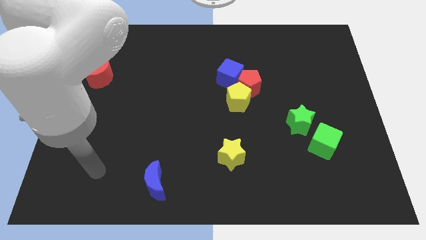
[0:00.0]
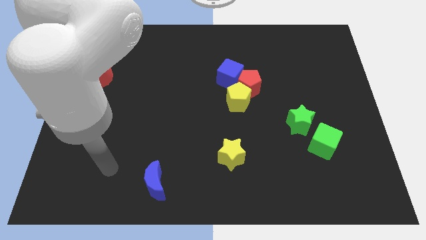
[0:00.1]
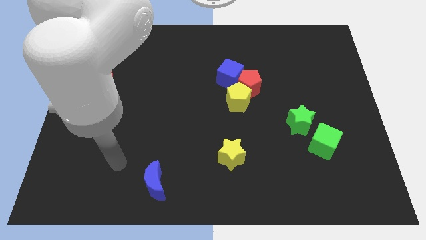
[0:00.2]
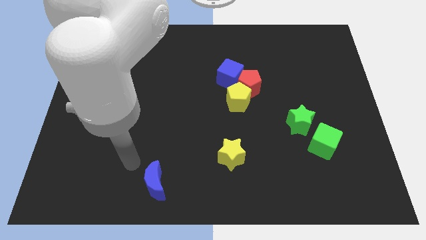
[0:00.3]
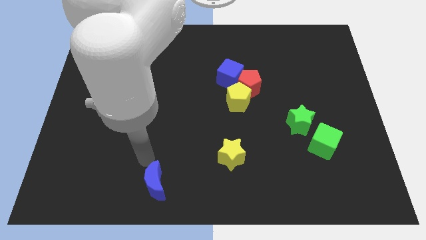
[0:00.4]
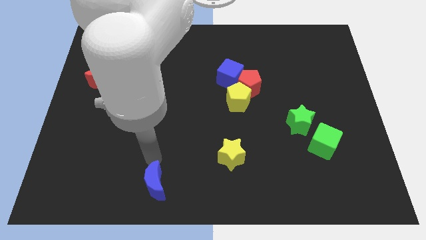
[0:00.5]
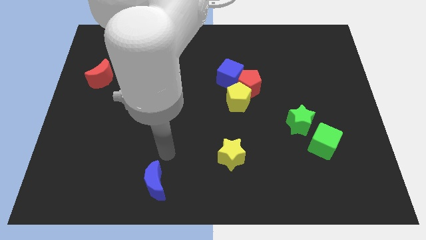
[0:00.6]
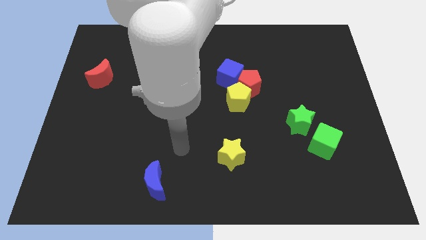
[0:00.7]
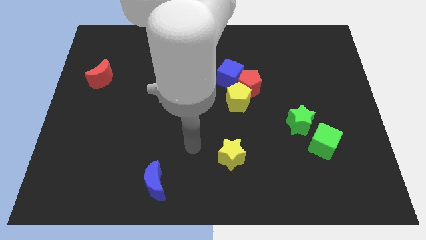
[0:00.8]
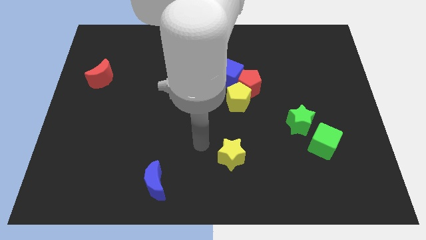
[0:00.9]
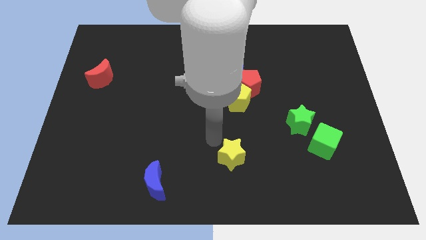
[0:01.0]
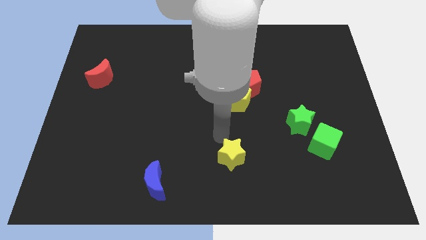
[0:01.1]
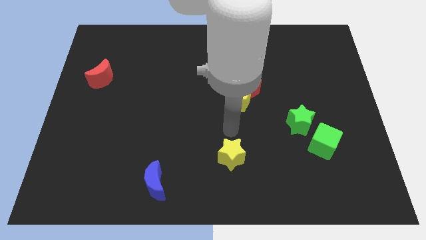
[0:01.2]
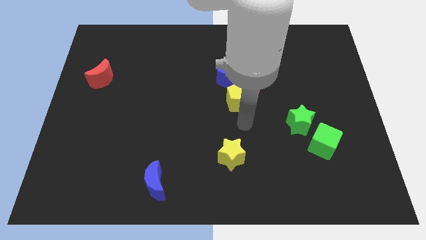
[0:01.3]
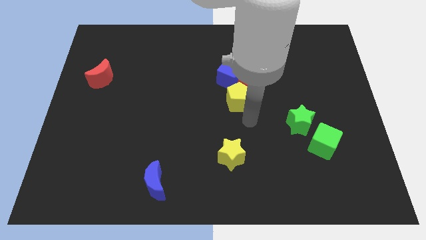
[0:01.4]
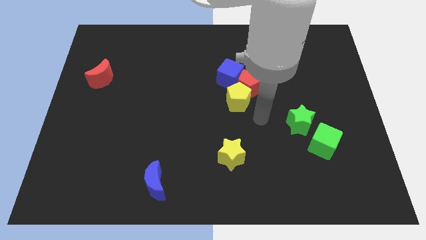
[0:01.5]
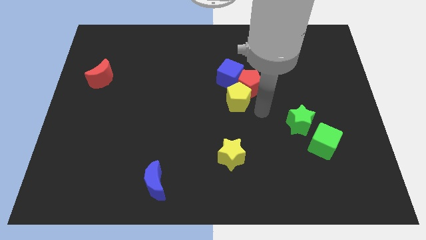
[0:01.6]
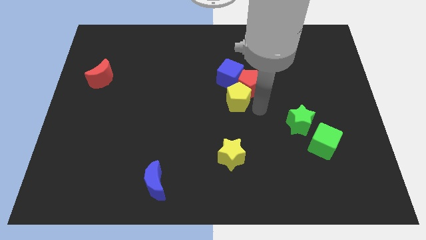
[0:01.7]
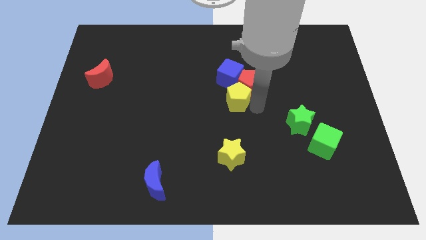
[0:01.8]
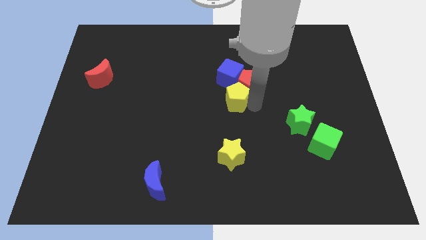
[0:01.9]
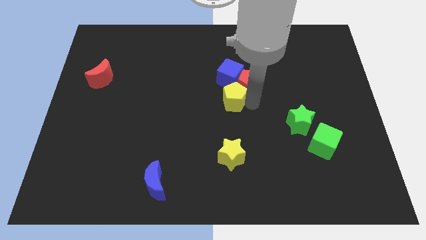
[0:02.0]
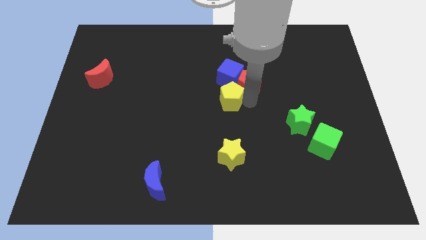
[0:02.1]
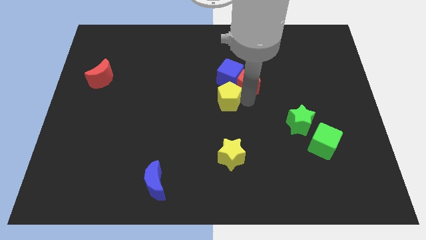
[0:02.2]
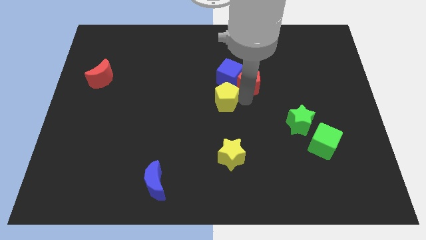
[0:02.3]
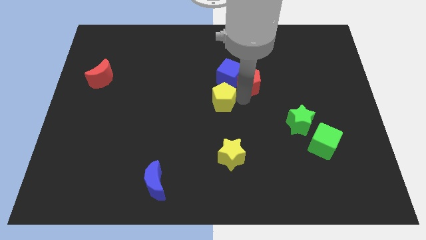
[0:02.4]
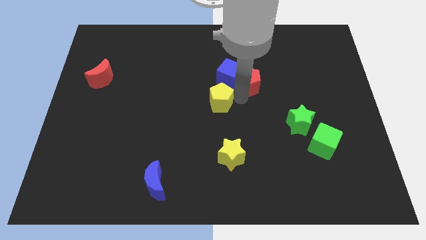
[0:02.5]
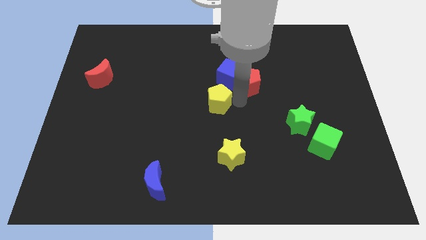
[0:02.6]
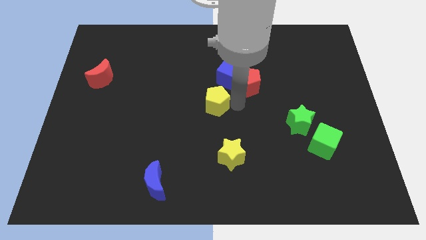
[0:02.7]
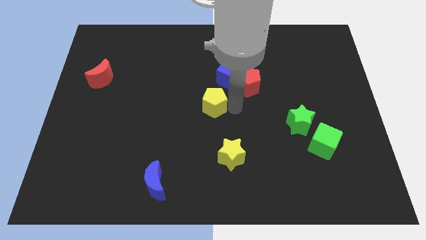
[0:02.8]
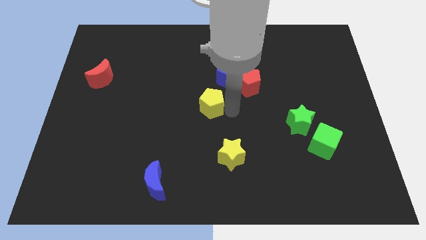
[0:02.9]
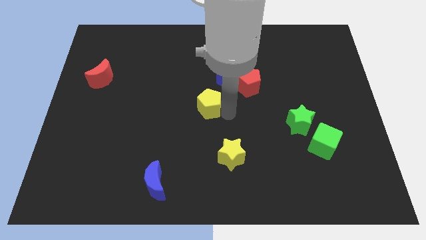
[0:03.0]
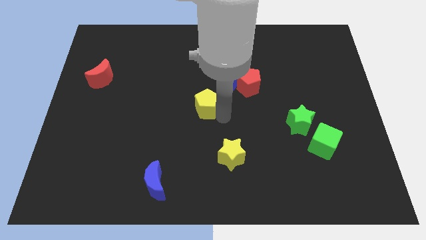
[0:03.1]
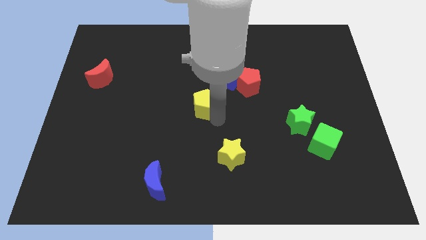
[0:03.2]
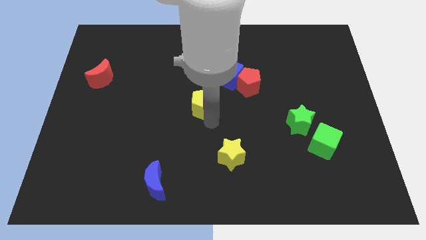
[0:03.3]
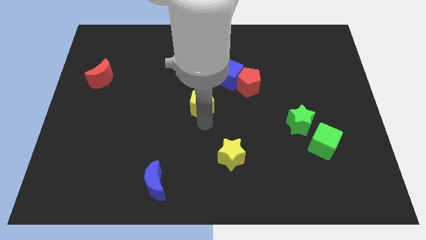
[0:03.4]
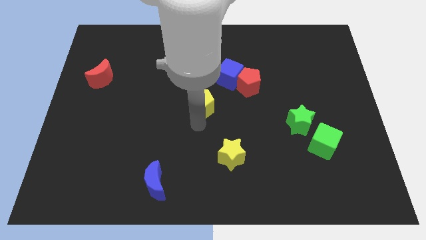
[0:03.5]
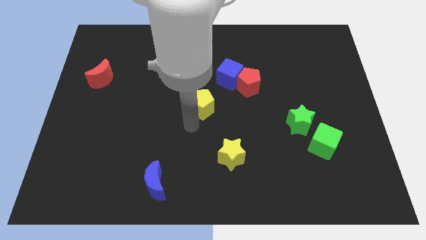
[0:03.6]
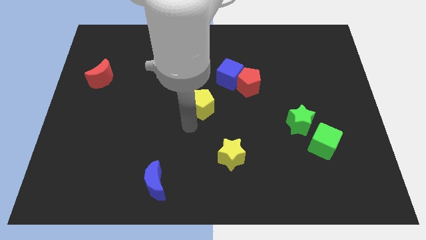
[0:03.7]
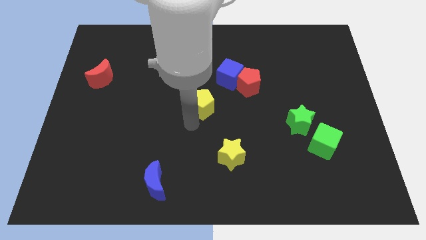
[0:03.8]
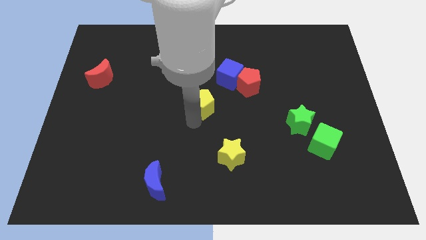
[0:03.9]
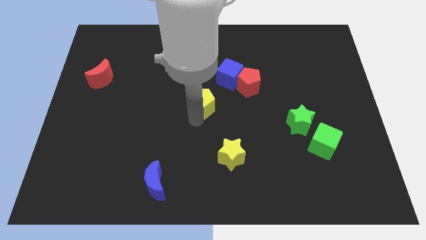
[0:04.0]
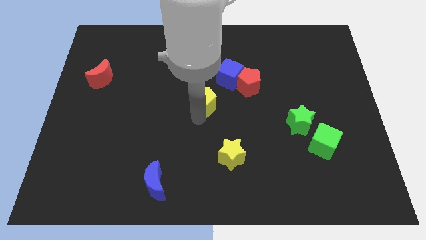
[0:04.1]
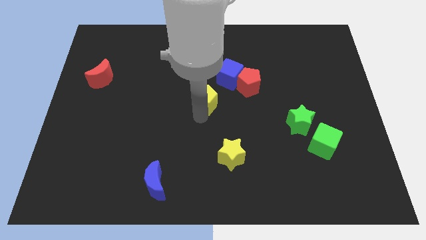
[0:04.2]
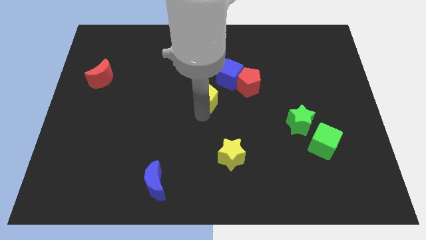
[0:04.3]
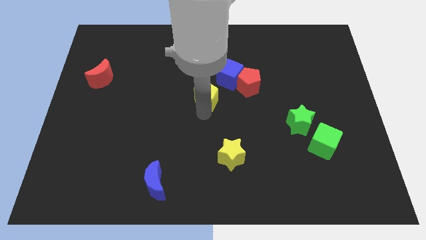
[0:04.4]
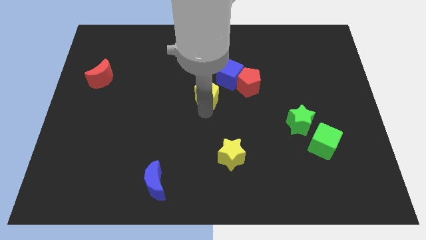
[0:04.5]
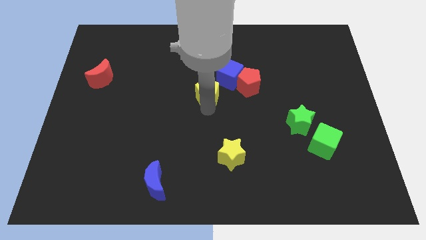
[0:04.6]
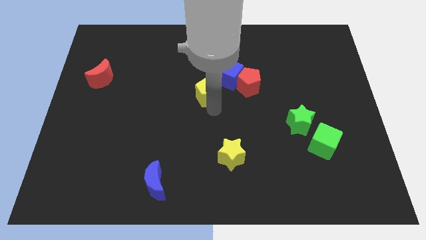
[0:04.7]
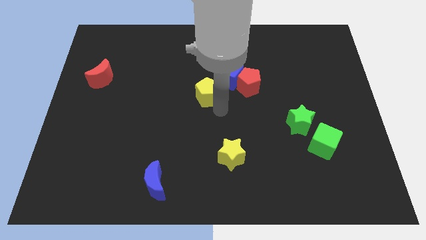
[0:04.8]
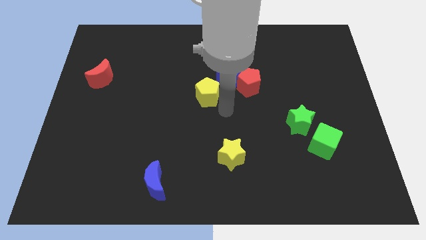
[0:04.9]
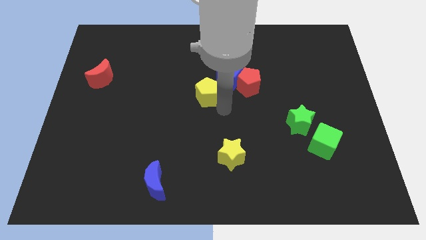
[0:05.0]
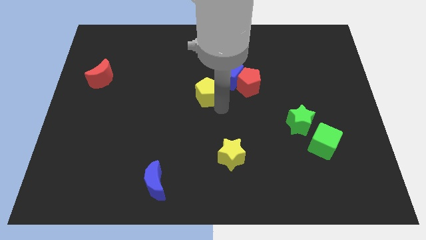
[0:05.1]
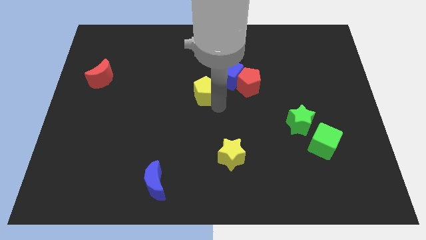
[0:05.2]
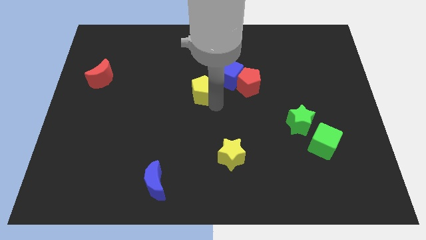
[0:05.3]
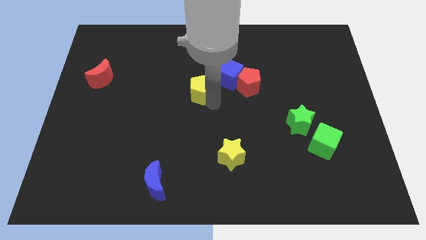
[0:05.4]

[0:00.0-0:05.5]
push the yellow pentagon to the left side of the blue cube

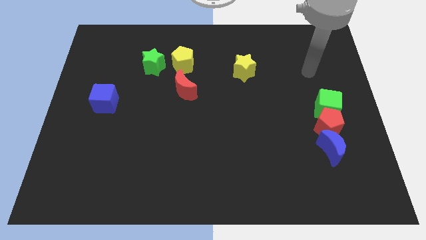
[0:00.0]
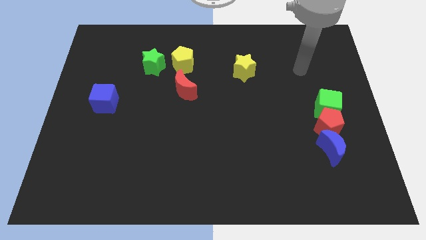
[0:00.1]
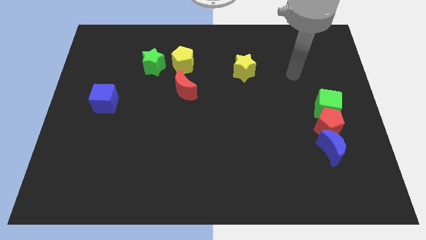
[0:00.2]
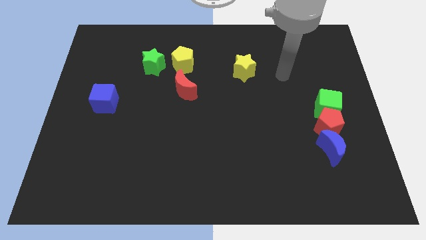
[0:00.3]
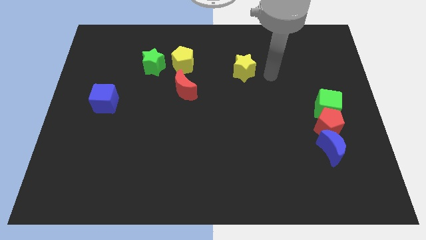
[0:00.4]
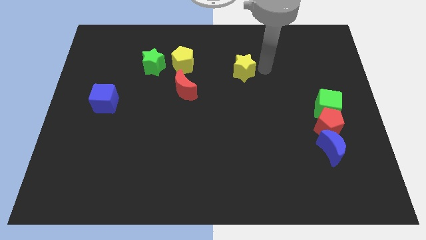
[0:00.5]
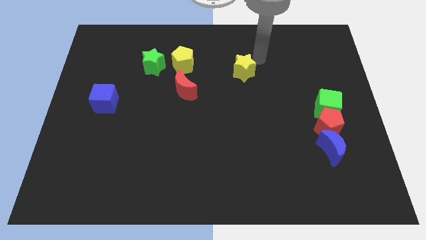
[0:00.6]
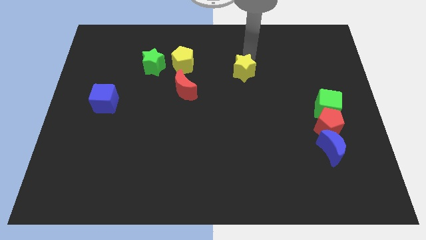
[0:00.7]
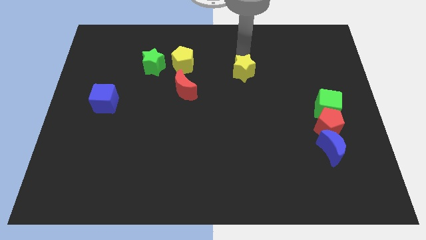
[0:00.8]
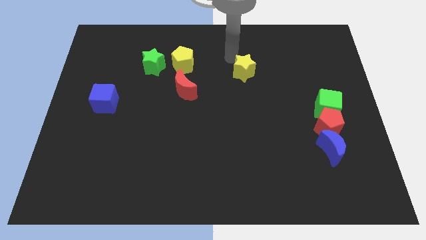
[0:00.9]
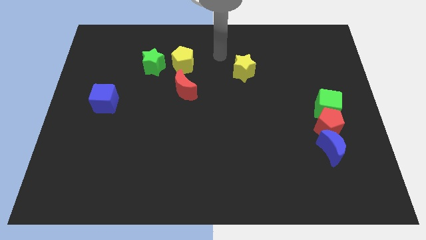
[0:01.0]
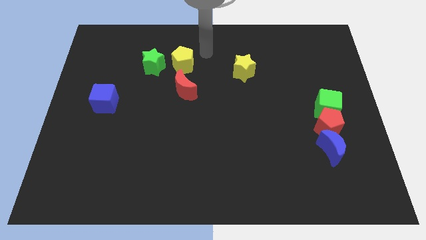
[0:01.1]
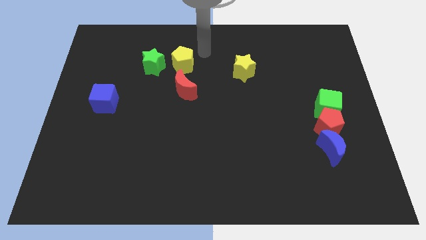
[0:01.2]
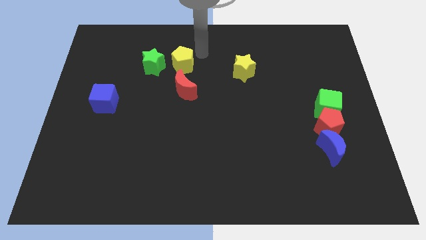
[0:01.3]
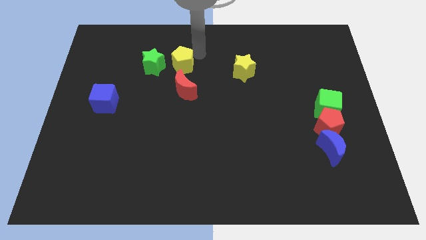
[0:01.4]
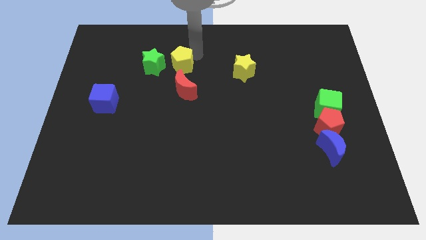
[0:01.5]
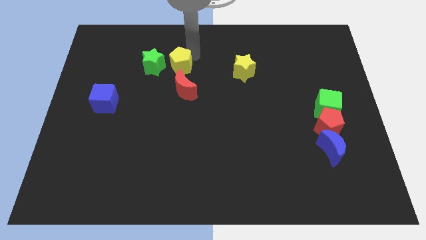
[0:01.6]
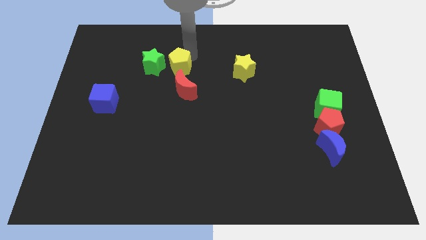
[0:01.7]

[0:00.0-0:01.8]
slide the yellow pentagon to the top left of the red moon
